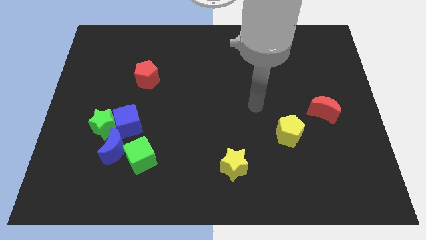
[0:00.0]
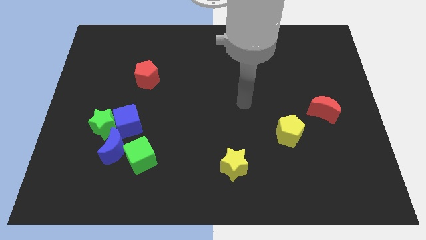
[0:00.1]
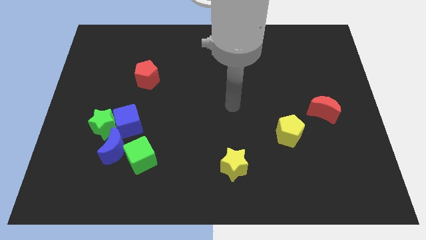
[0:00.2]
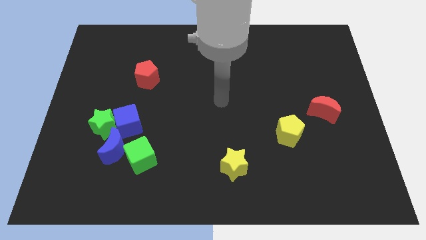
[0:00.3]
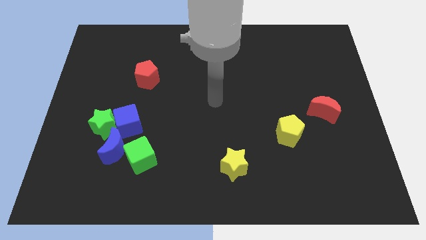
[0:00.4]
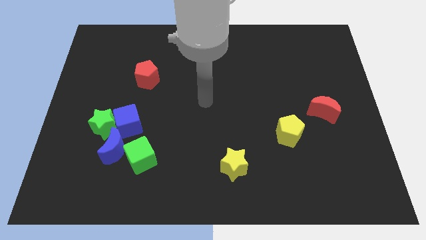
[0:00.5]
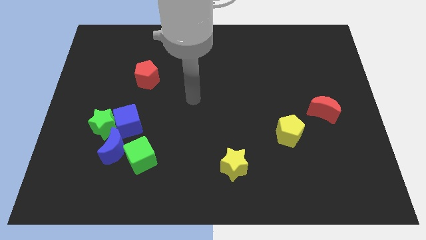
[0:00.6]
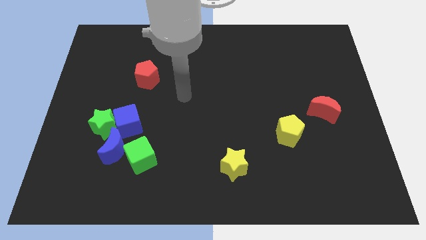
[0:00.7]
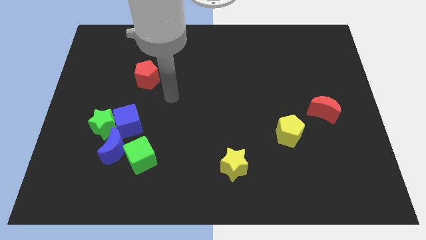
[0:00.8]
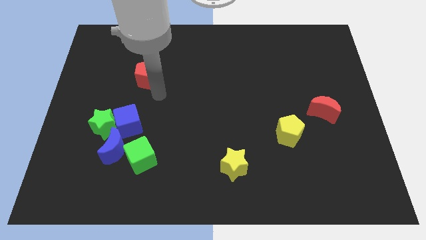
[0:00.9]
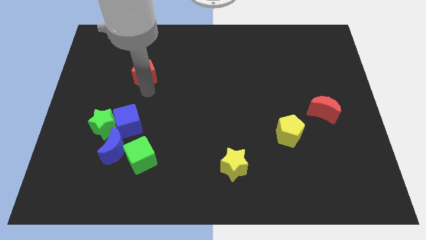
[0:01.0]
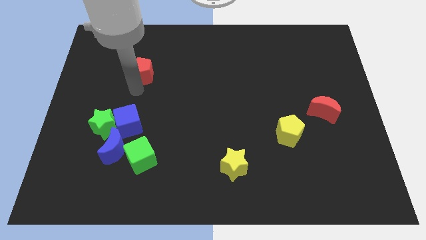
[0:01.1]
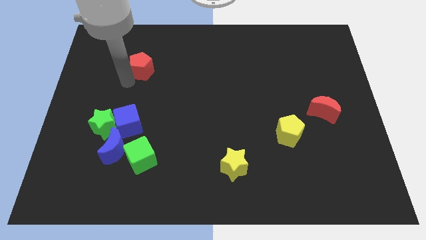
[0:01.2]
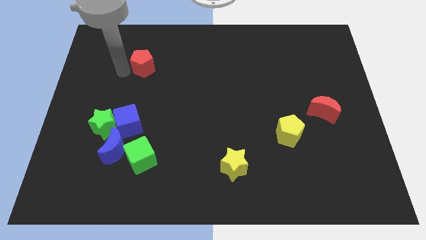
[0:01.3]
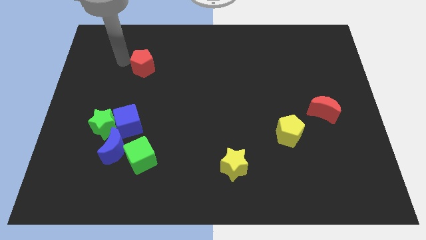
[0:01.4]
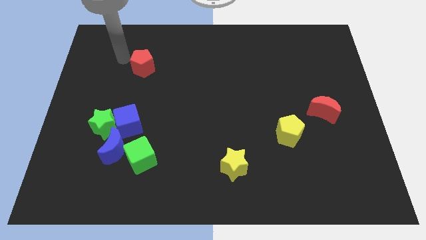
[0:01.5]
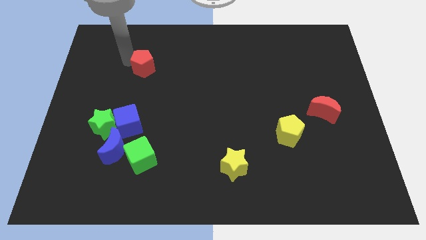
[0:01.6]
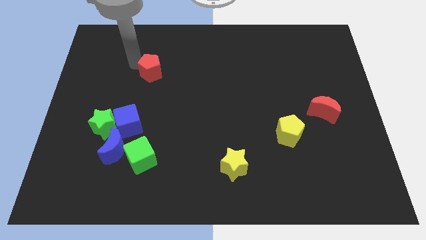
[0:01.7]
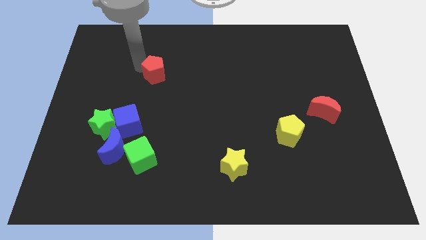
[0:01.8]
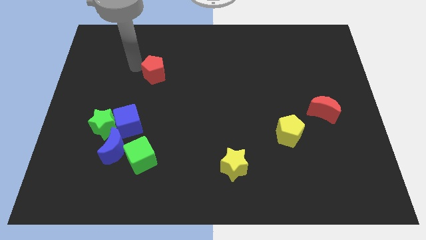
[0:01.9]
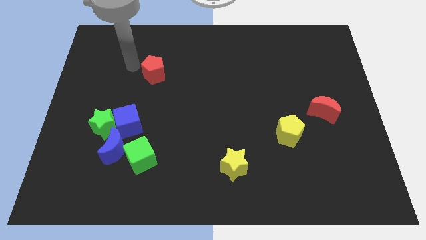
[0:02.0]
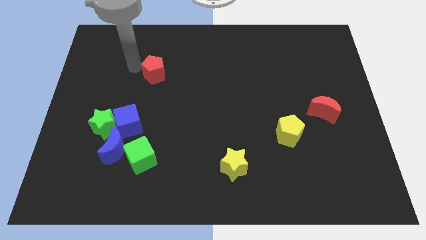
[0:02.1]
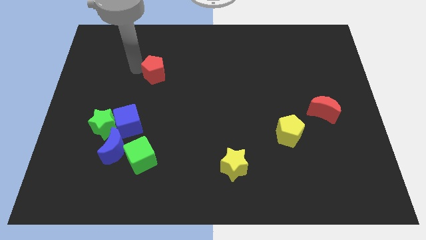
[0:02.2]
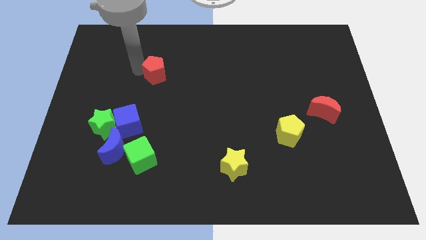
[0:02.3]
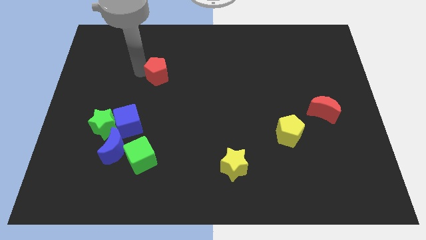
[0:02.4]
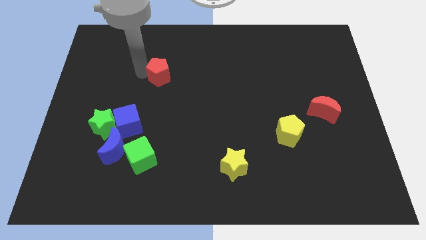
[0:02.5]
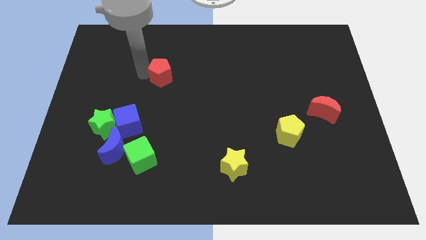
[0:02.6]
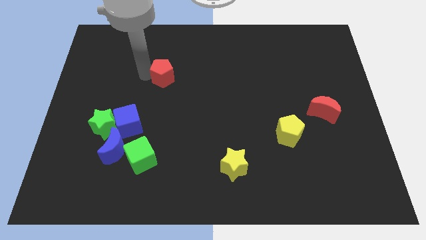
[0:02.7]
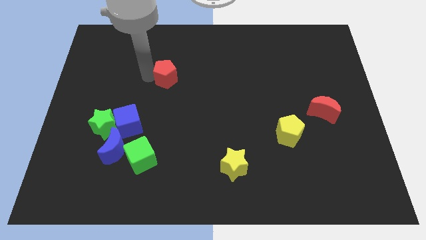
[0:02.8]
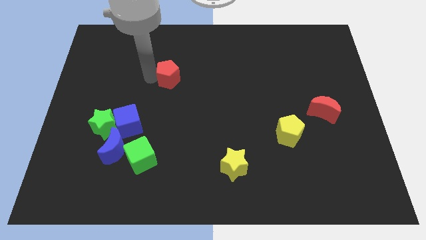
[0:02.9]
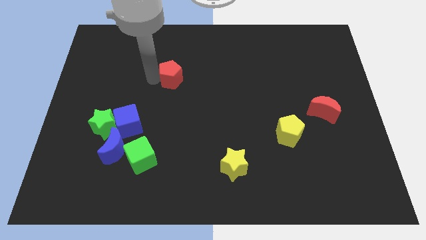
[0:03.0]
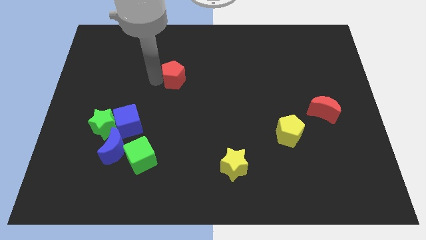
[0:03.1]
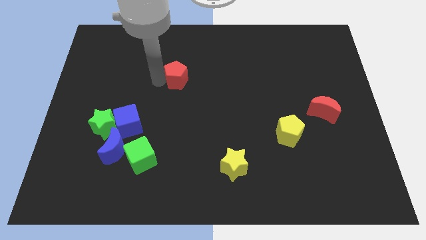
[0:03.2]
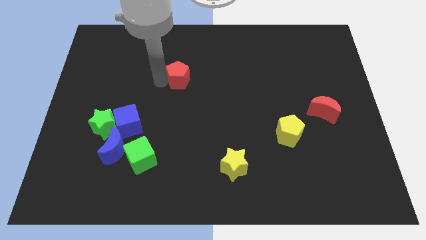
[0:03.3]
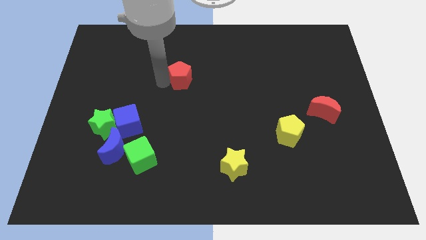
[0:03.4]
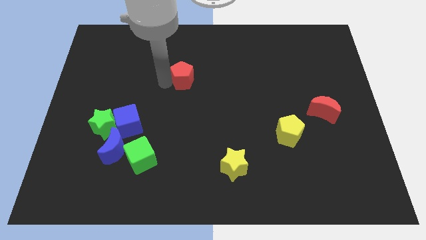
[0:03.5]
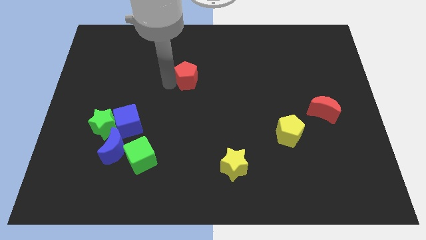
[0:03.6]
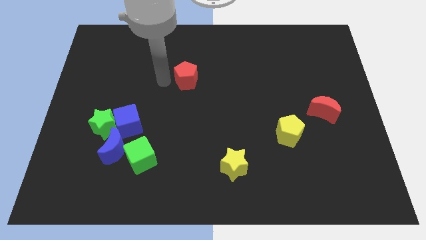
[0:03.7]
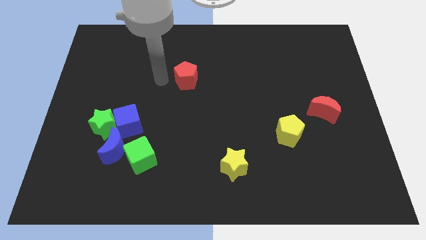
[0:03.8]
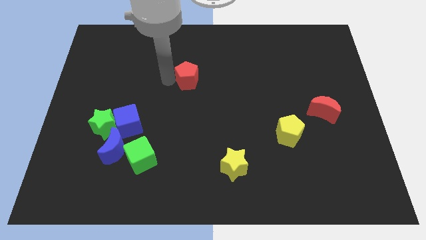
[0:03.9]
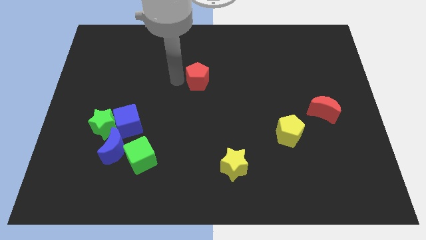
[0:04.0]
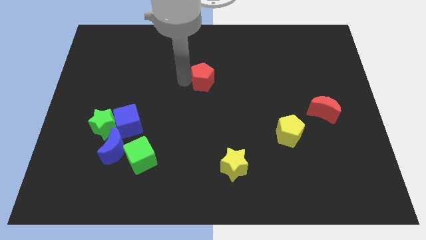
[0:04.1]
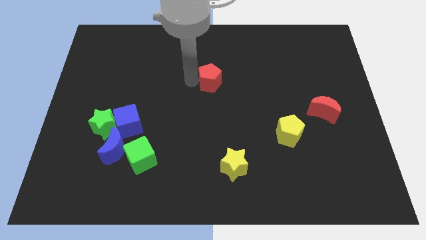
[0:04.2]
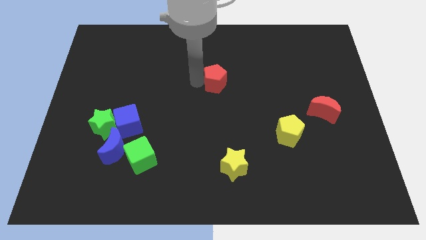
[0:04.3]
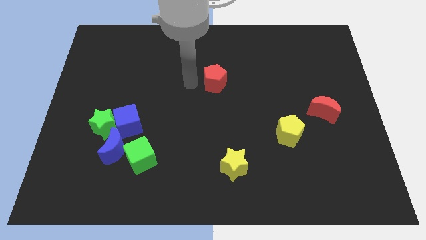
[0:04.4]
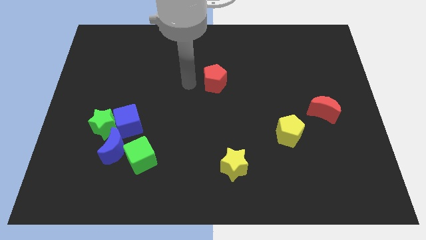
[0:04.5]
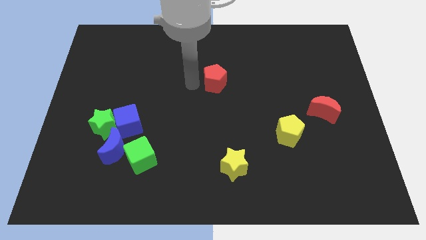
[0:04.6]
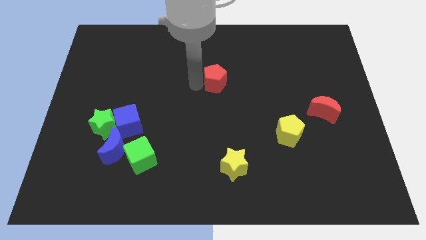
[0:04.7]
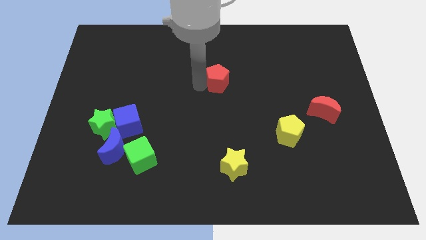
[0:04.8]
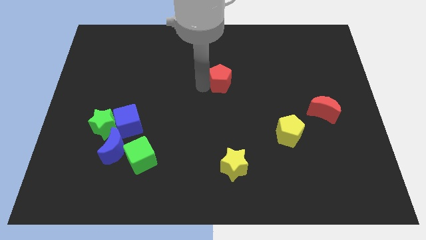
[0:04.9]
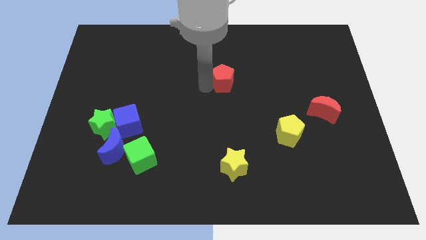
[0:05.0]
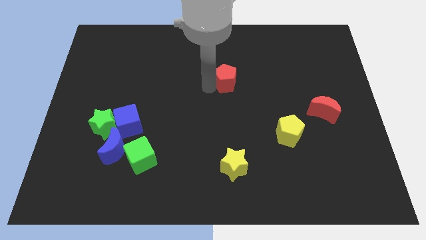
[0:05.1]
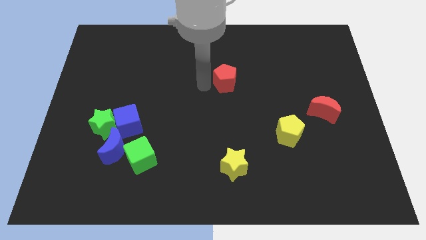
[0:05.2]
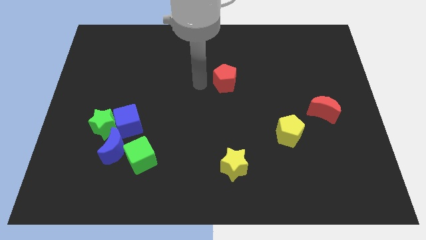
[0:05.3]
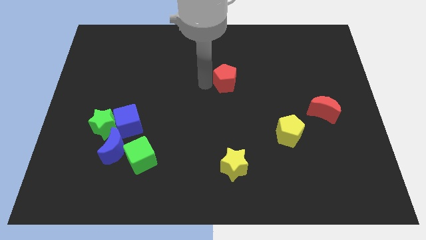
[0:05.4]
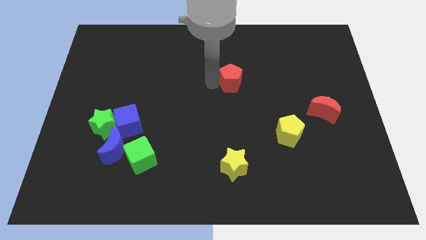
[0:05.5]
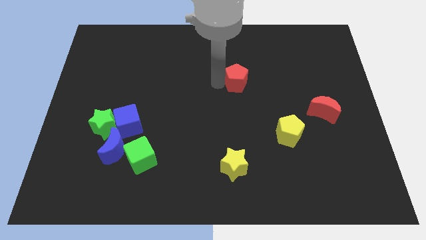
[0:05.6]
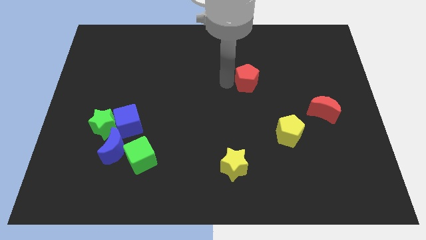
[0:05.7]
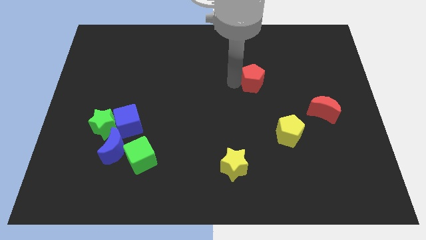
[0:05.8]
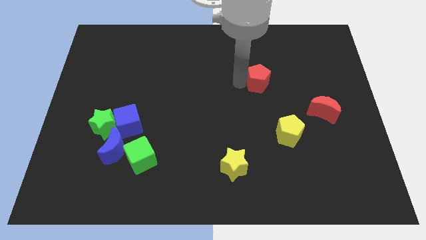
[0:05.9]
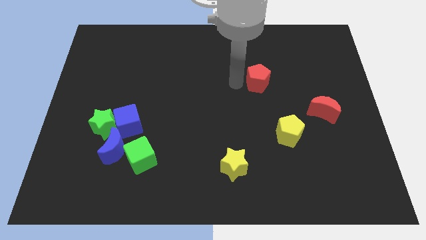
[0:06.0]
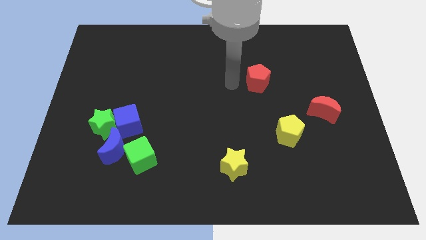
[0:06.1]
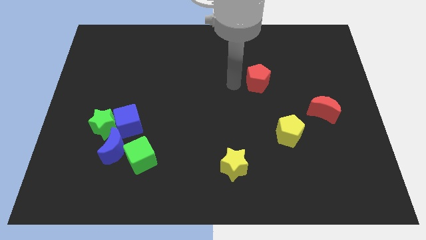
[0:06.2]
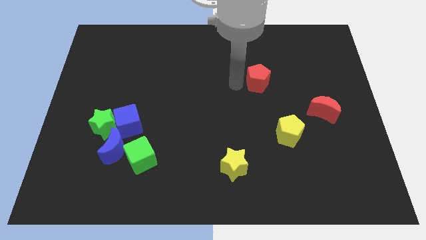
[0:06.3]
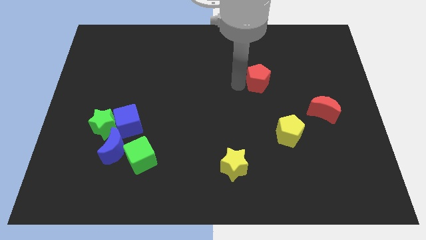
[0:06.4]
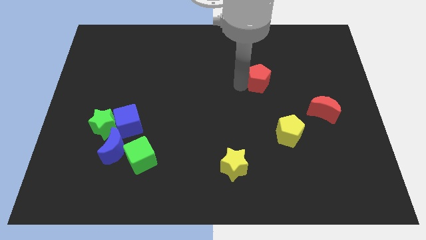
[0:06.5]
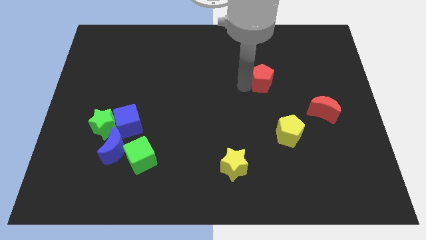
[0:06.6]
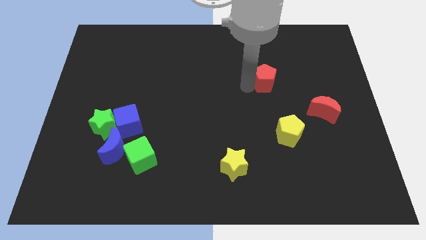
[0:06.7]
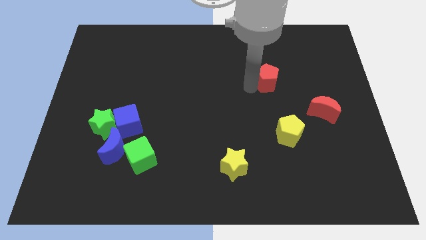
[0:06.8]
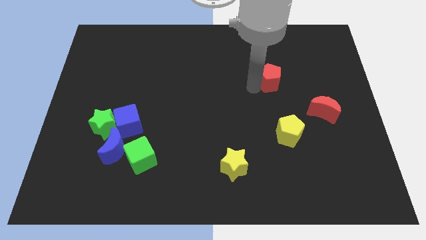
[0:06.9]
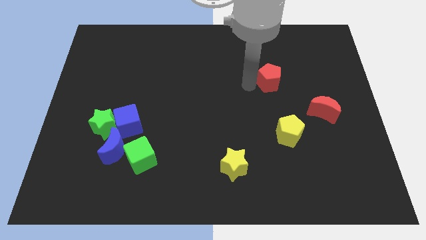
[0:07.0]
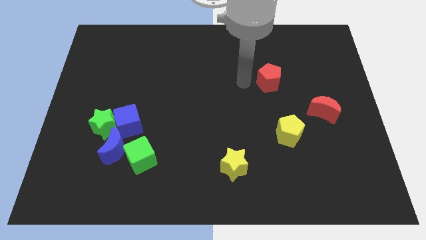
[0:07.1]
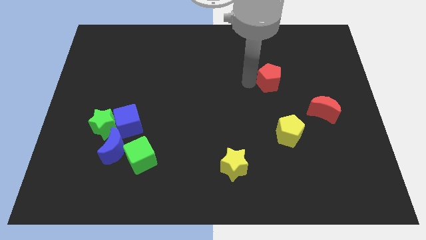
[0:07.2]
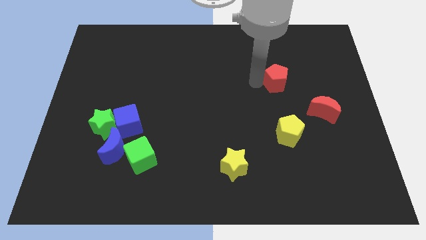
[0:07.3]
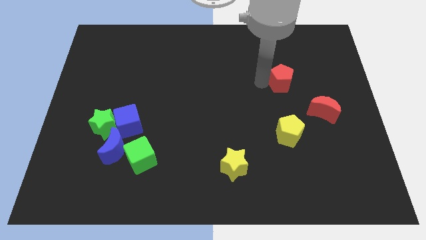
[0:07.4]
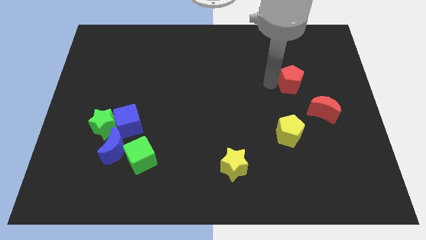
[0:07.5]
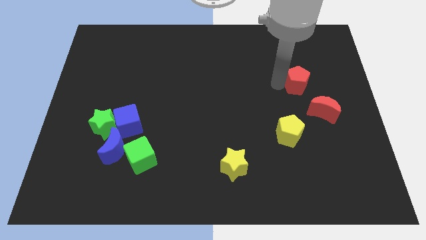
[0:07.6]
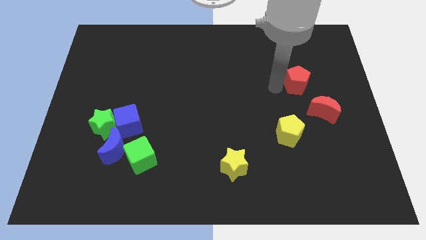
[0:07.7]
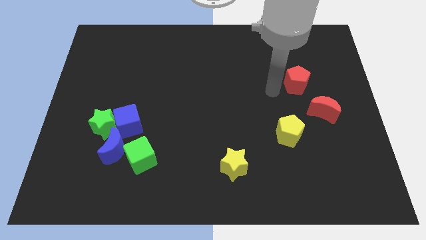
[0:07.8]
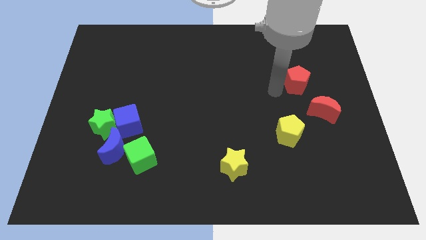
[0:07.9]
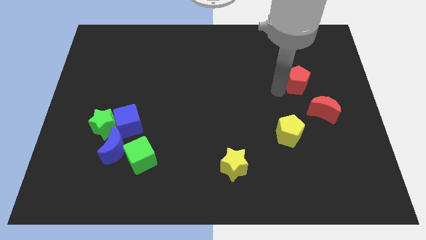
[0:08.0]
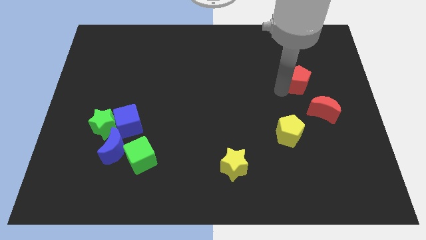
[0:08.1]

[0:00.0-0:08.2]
slide the red pentagon to the top of the red moon
